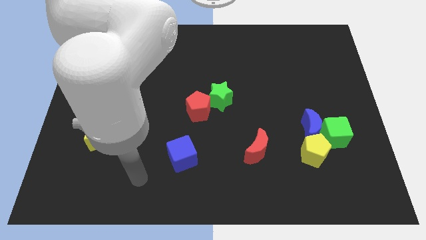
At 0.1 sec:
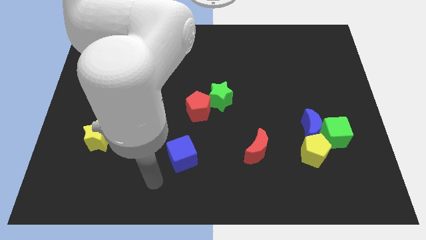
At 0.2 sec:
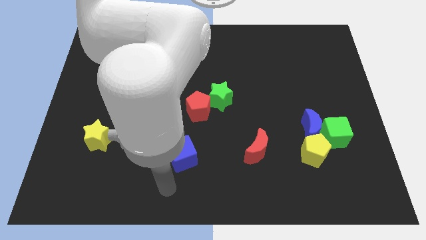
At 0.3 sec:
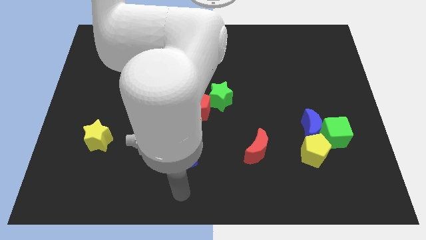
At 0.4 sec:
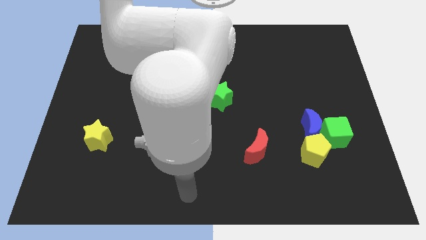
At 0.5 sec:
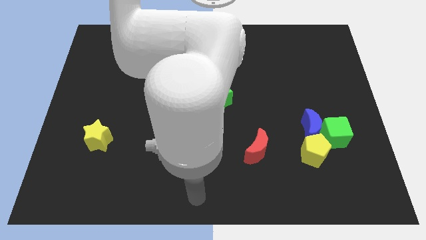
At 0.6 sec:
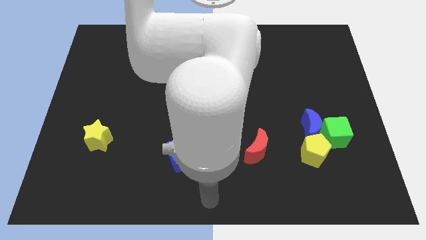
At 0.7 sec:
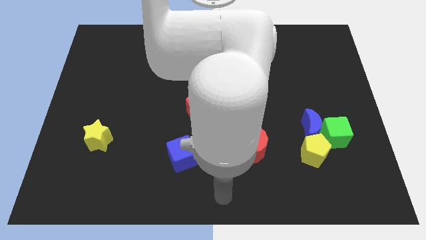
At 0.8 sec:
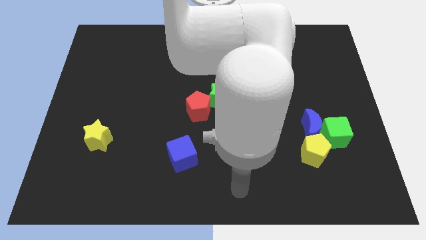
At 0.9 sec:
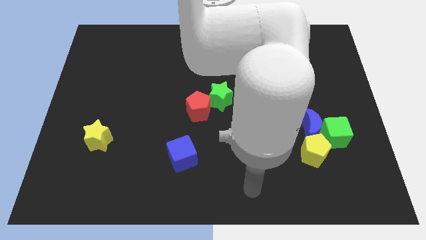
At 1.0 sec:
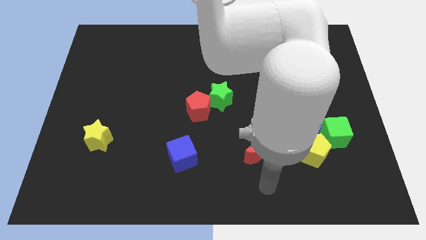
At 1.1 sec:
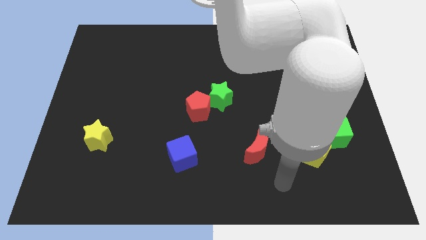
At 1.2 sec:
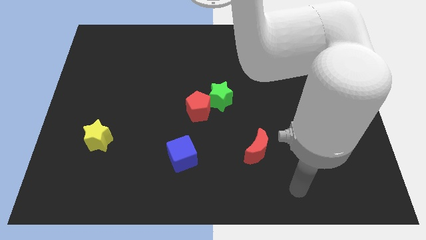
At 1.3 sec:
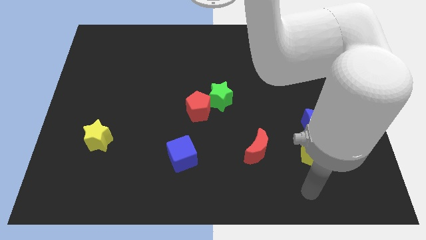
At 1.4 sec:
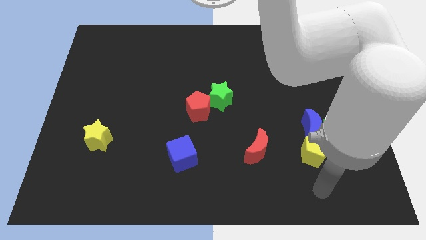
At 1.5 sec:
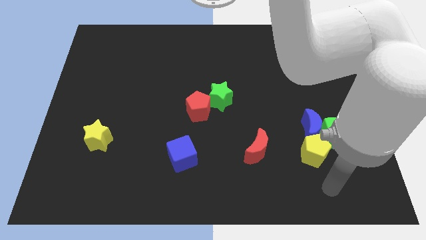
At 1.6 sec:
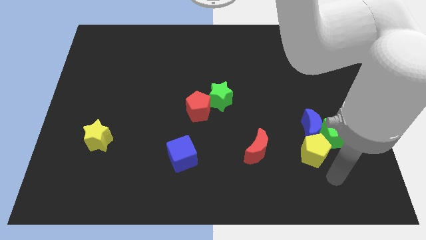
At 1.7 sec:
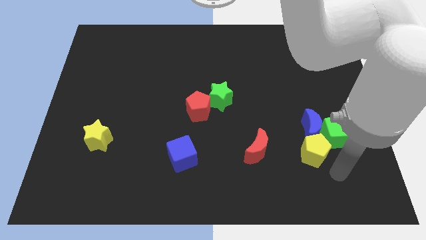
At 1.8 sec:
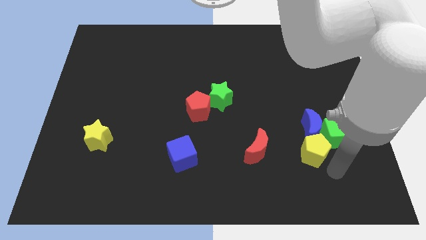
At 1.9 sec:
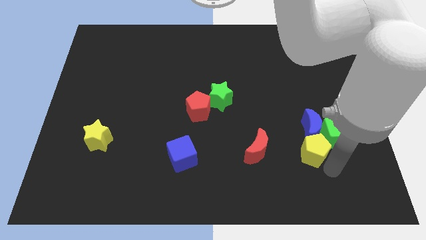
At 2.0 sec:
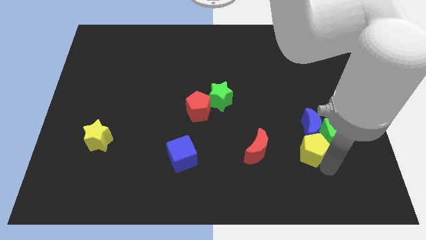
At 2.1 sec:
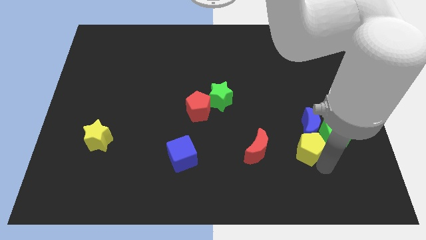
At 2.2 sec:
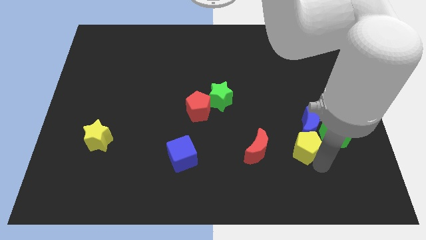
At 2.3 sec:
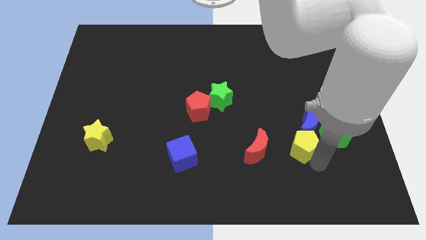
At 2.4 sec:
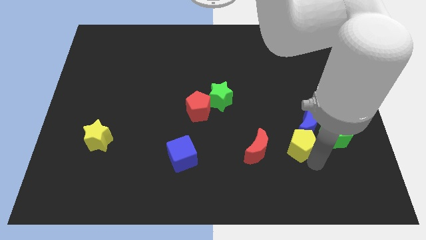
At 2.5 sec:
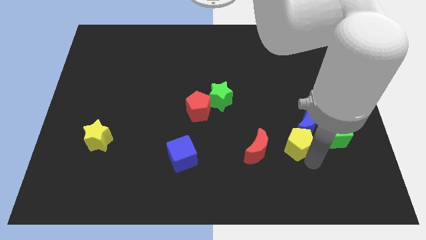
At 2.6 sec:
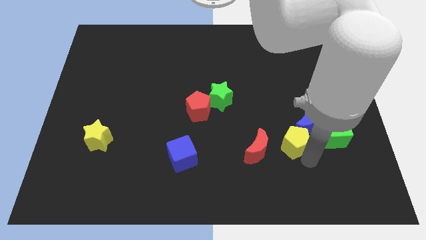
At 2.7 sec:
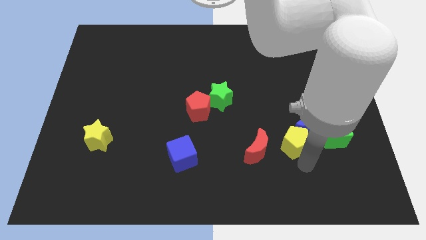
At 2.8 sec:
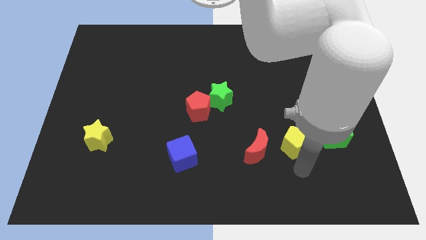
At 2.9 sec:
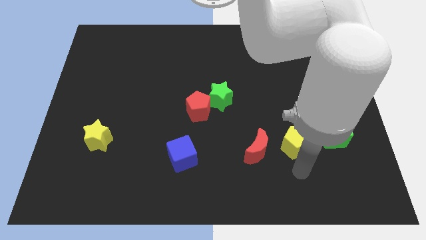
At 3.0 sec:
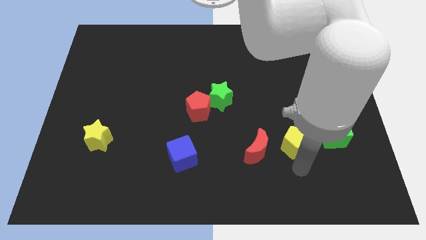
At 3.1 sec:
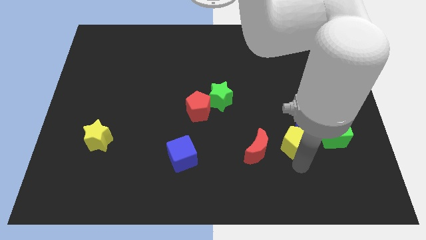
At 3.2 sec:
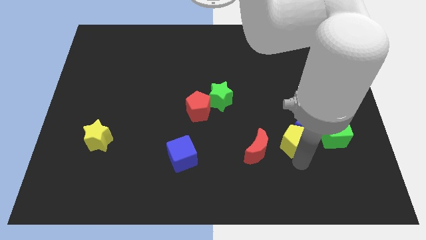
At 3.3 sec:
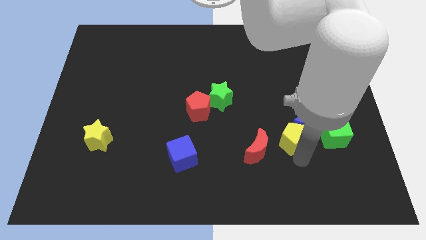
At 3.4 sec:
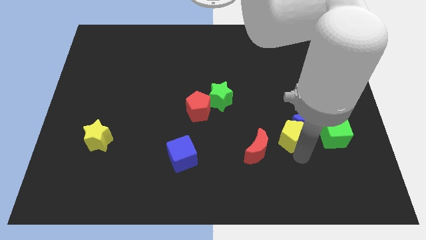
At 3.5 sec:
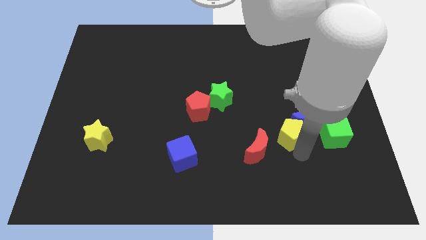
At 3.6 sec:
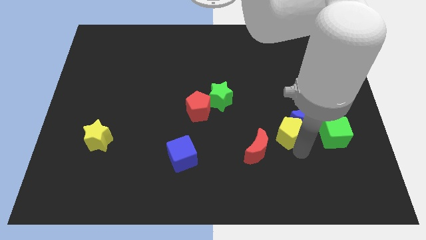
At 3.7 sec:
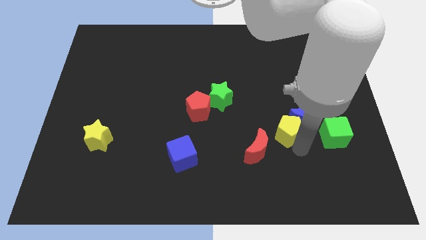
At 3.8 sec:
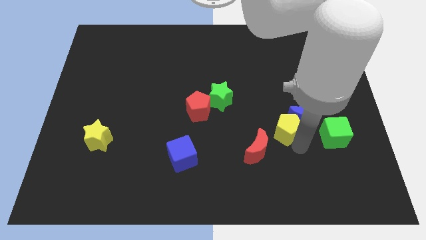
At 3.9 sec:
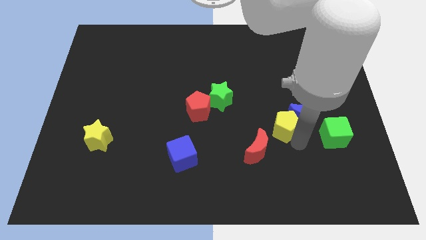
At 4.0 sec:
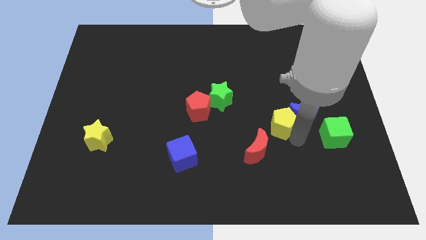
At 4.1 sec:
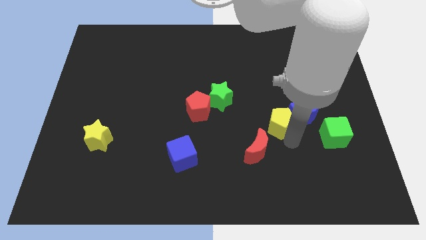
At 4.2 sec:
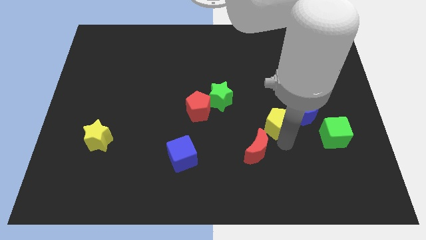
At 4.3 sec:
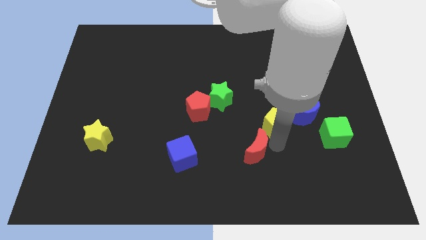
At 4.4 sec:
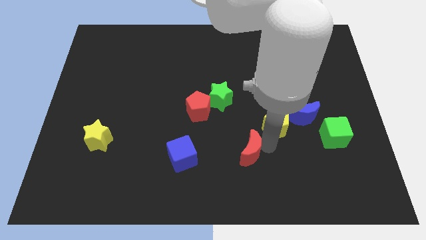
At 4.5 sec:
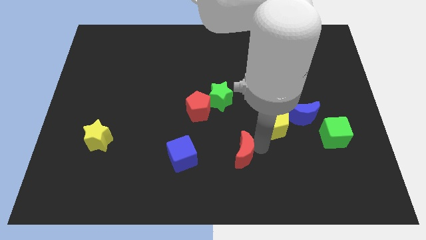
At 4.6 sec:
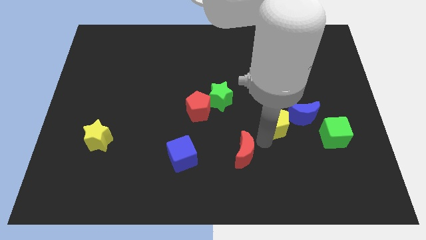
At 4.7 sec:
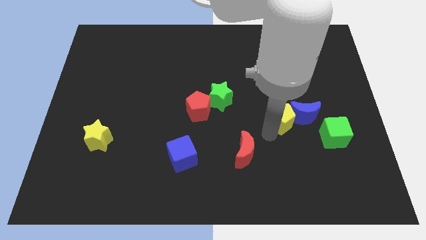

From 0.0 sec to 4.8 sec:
slightly push the yellow pentagon up

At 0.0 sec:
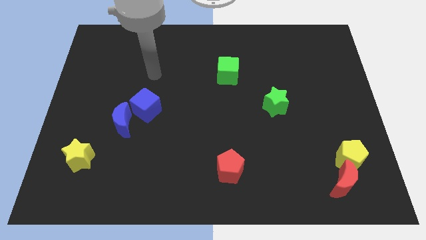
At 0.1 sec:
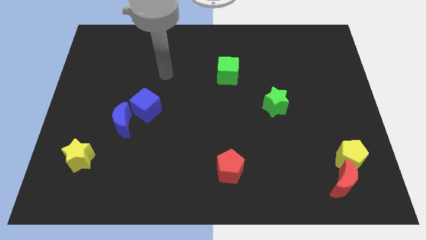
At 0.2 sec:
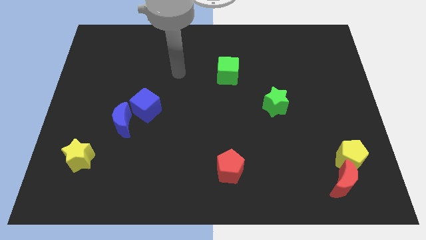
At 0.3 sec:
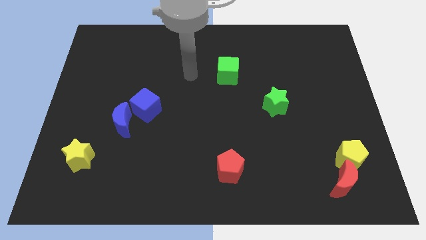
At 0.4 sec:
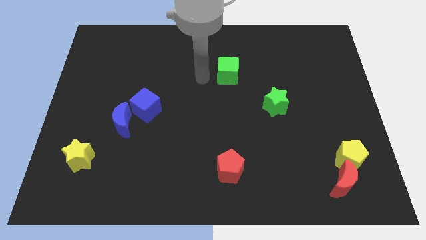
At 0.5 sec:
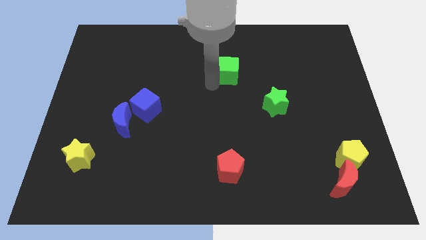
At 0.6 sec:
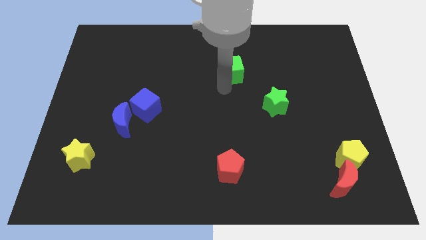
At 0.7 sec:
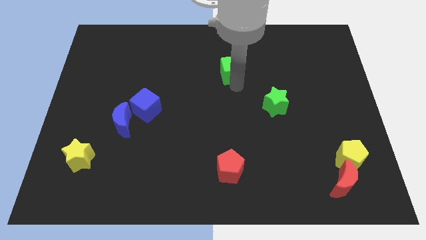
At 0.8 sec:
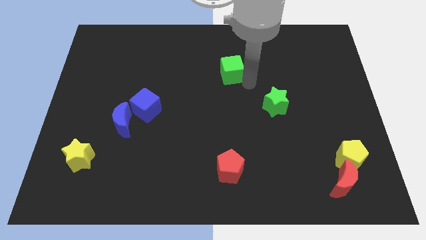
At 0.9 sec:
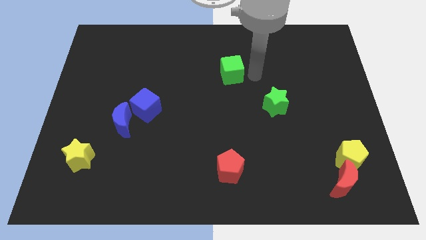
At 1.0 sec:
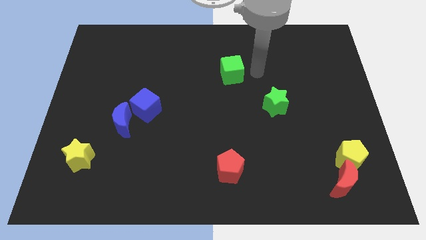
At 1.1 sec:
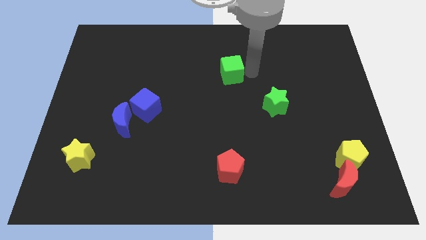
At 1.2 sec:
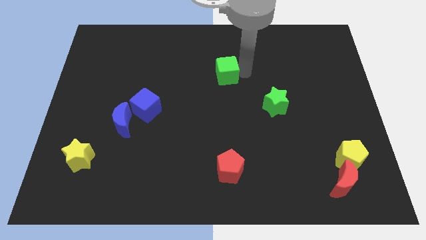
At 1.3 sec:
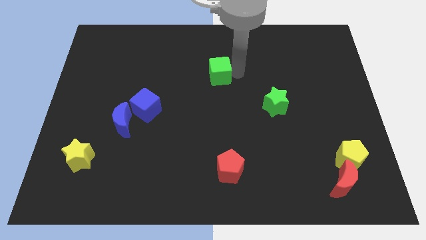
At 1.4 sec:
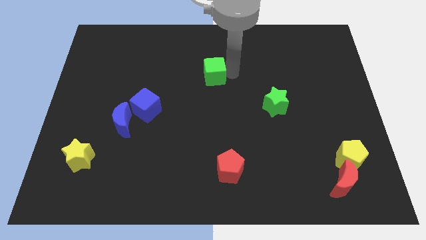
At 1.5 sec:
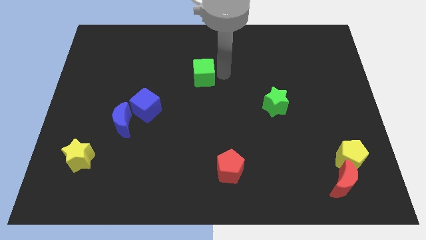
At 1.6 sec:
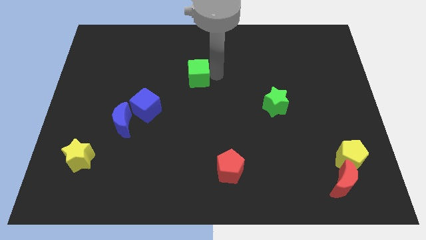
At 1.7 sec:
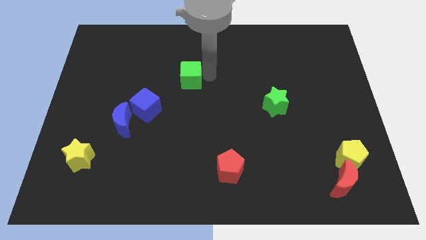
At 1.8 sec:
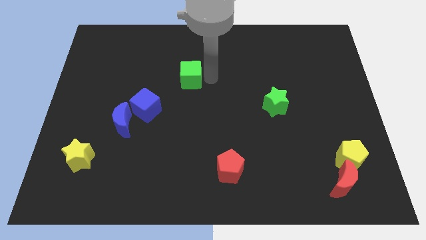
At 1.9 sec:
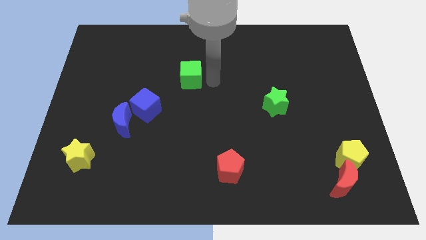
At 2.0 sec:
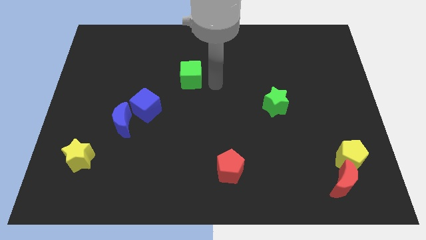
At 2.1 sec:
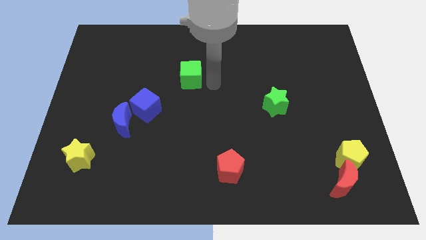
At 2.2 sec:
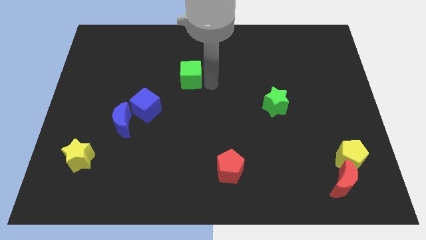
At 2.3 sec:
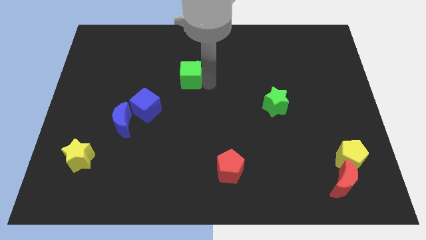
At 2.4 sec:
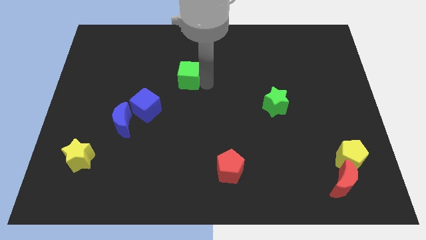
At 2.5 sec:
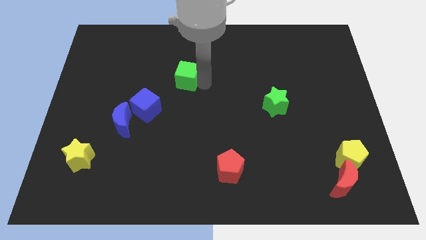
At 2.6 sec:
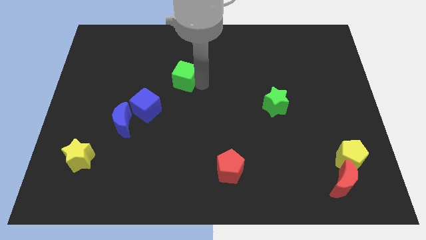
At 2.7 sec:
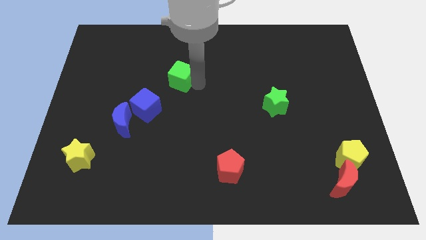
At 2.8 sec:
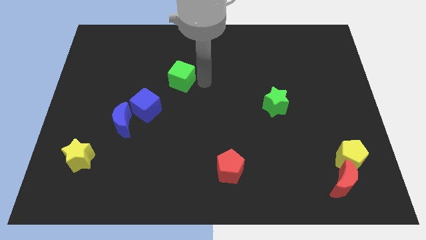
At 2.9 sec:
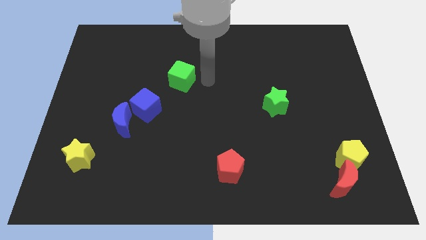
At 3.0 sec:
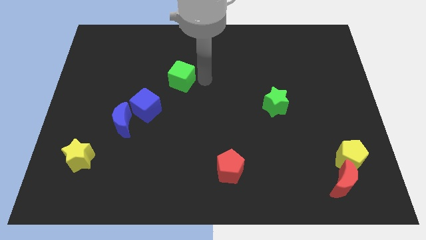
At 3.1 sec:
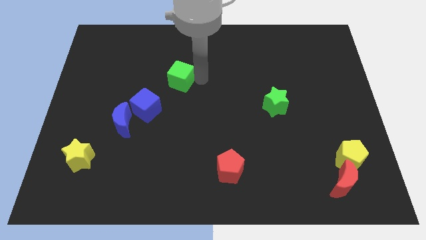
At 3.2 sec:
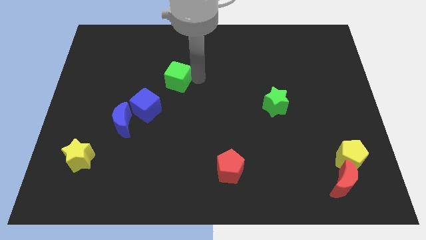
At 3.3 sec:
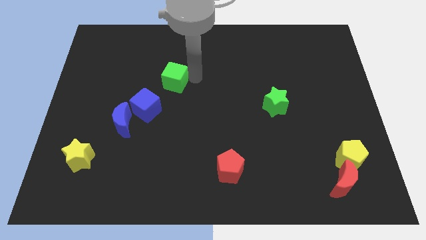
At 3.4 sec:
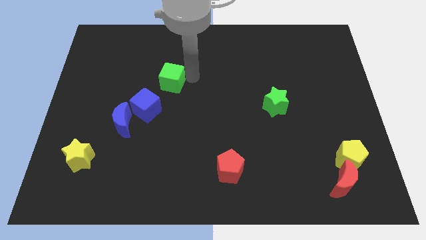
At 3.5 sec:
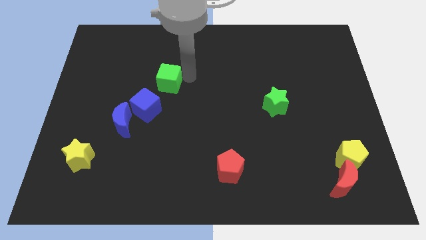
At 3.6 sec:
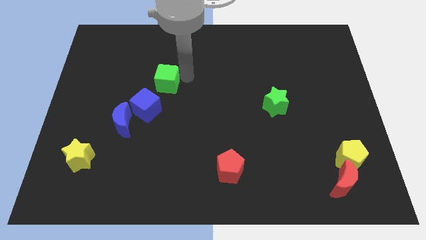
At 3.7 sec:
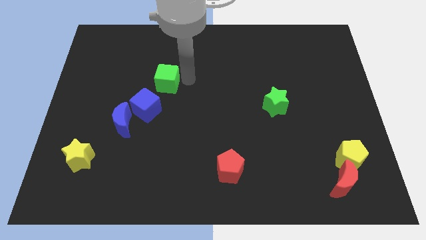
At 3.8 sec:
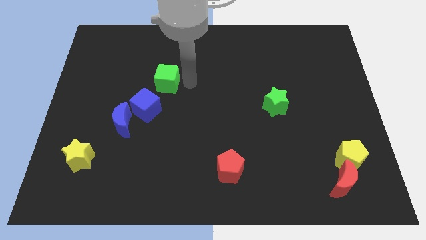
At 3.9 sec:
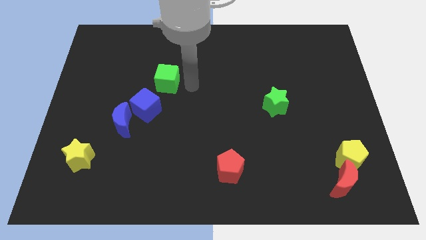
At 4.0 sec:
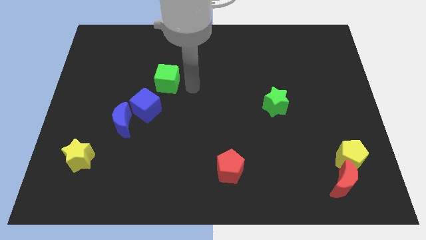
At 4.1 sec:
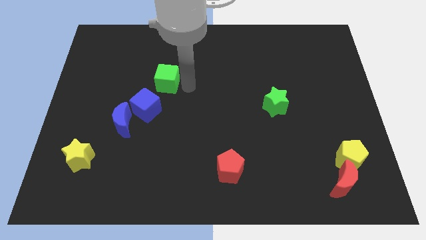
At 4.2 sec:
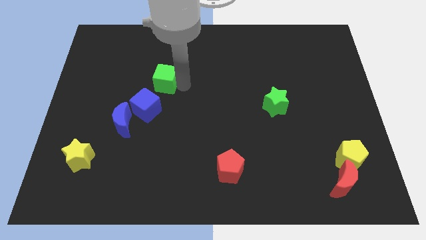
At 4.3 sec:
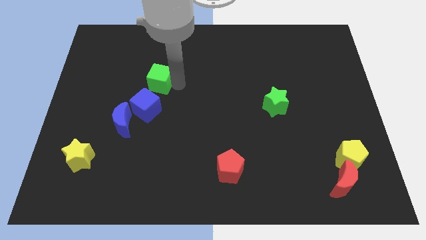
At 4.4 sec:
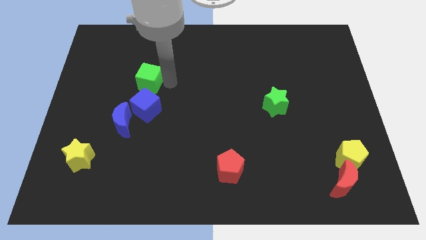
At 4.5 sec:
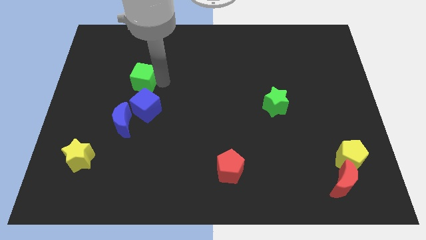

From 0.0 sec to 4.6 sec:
move the green cube to the left
